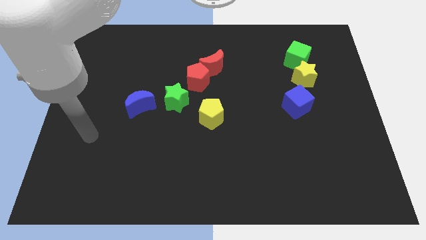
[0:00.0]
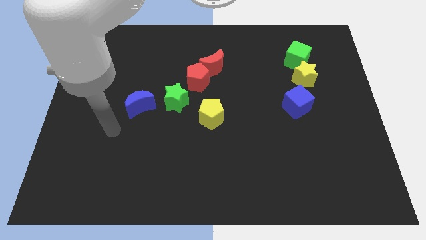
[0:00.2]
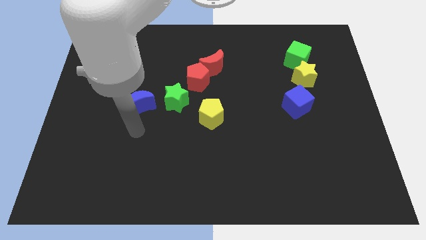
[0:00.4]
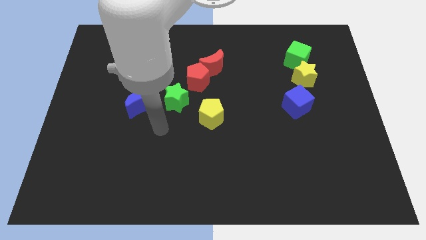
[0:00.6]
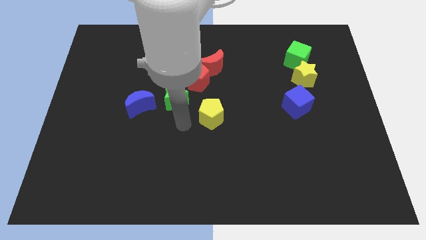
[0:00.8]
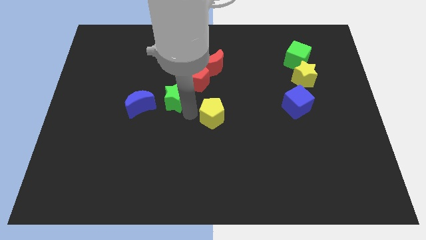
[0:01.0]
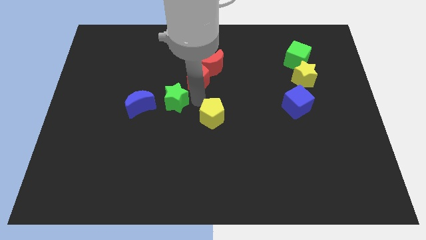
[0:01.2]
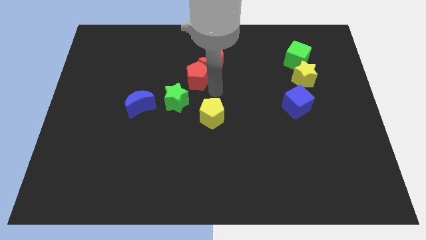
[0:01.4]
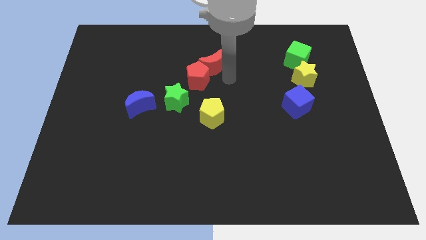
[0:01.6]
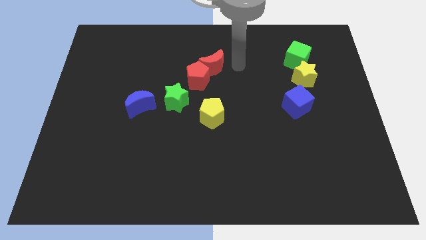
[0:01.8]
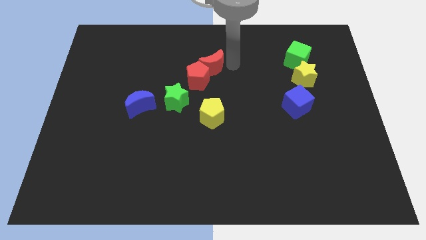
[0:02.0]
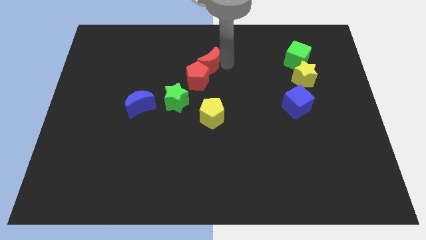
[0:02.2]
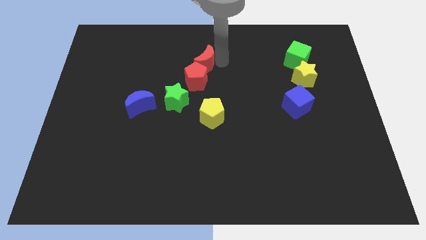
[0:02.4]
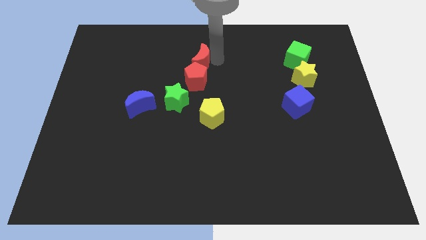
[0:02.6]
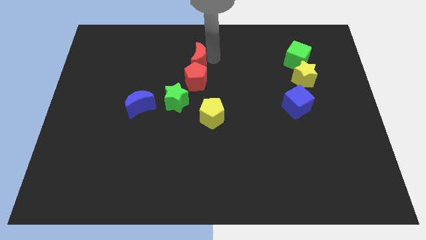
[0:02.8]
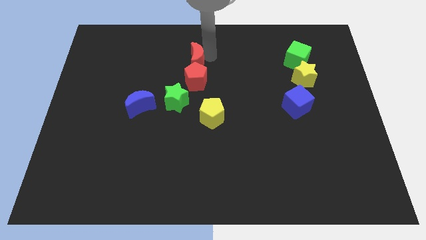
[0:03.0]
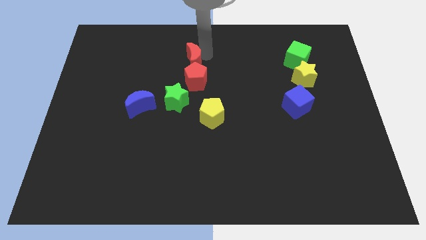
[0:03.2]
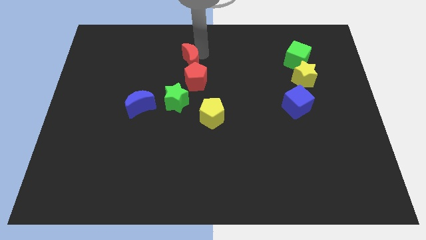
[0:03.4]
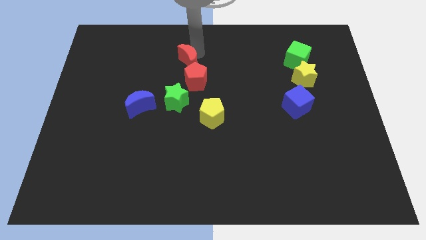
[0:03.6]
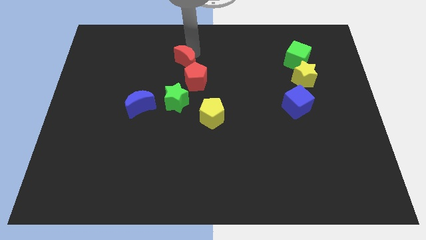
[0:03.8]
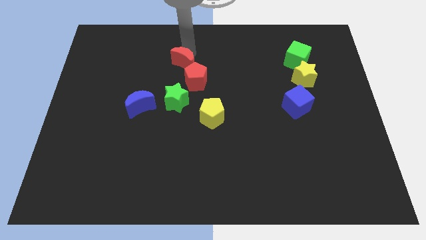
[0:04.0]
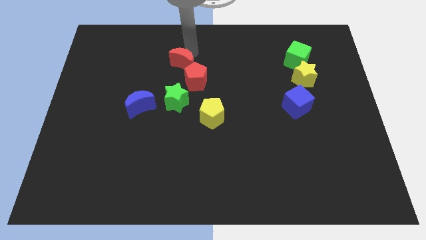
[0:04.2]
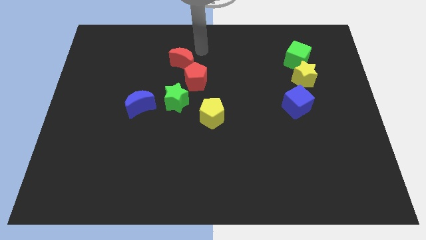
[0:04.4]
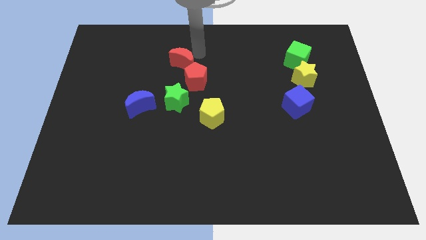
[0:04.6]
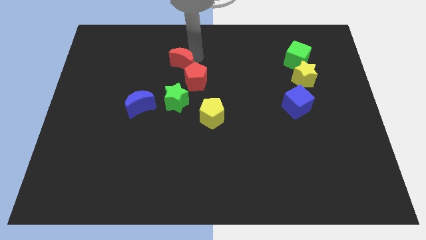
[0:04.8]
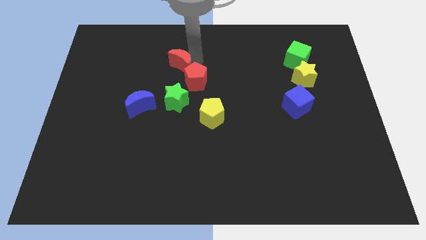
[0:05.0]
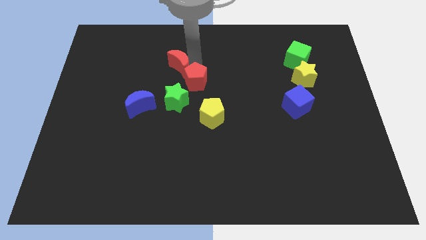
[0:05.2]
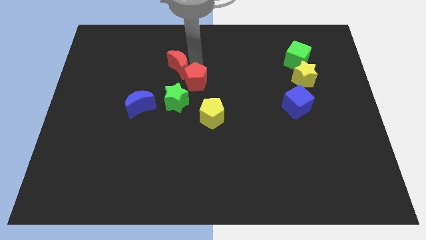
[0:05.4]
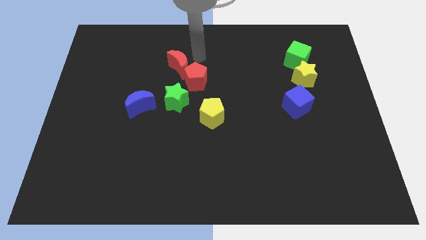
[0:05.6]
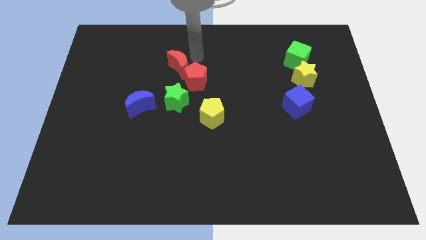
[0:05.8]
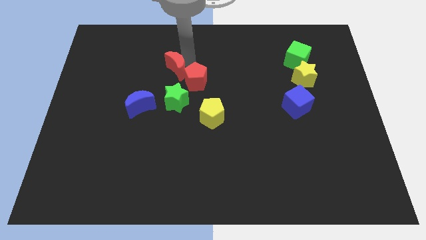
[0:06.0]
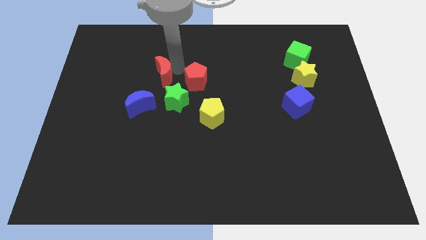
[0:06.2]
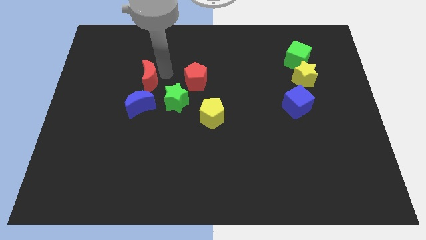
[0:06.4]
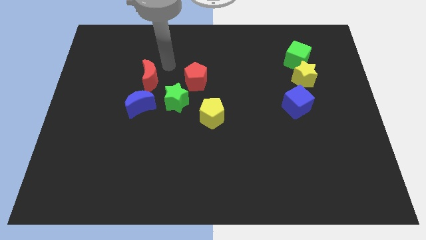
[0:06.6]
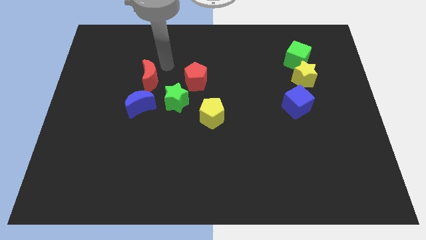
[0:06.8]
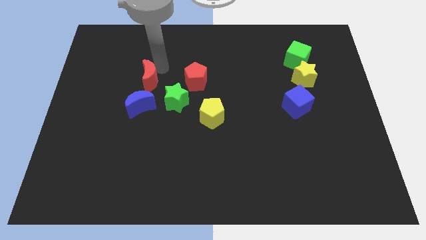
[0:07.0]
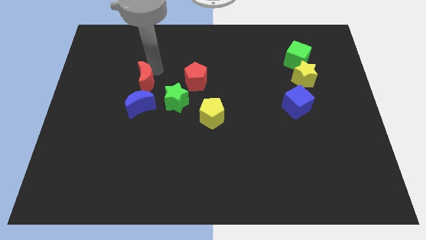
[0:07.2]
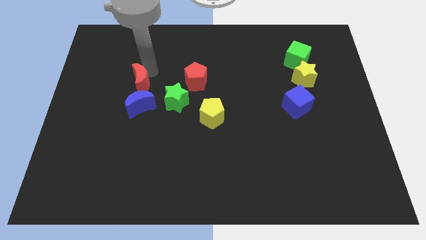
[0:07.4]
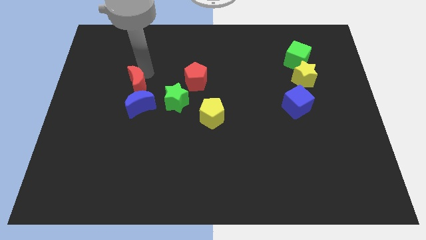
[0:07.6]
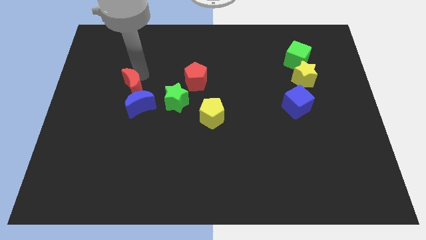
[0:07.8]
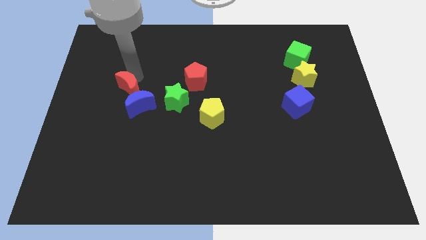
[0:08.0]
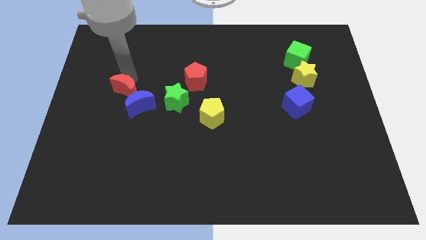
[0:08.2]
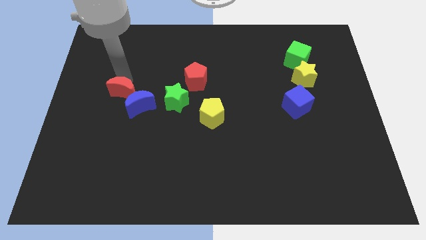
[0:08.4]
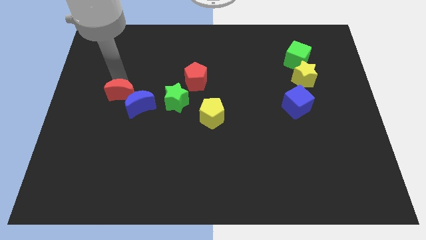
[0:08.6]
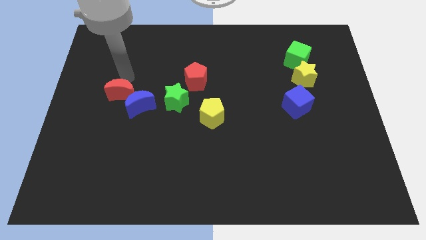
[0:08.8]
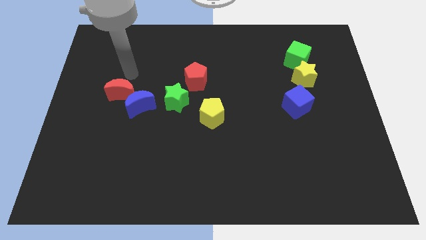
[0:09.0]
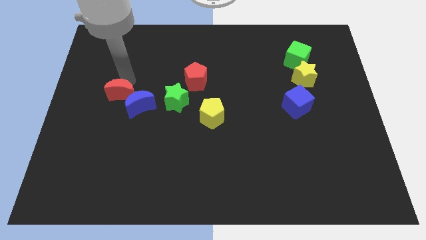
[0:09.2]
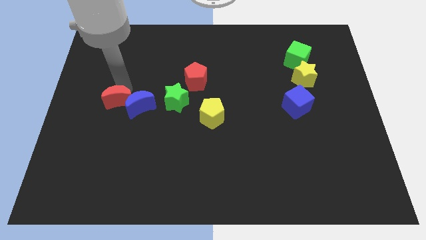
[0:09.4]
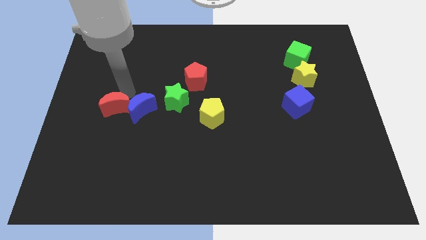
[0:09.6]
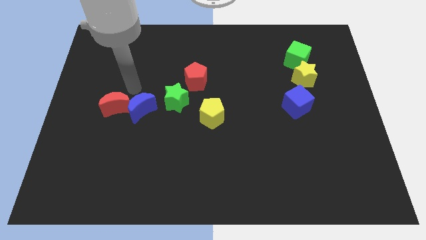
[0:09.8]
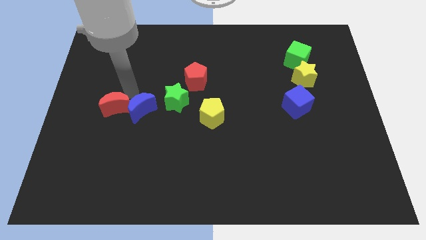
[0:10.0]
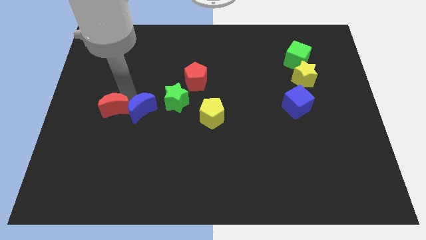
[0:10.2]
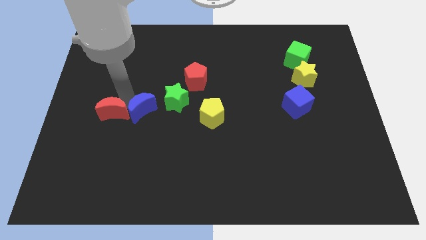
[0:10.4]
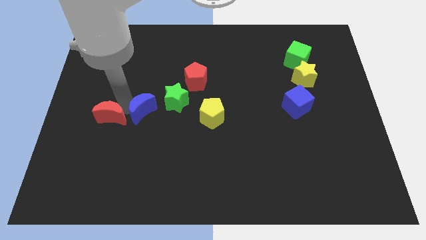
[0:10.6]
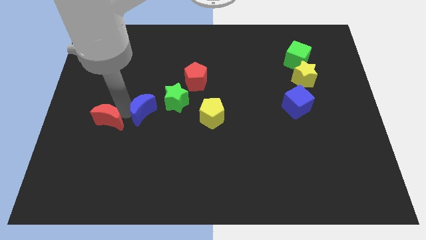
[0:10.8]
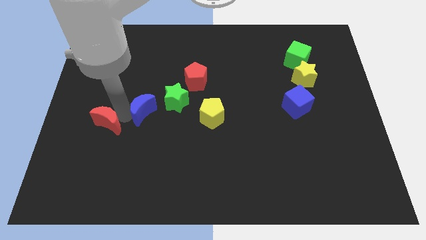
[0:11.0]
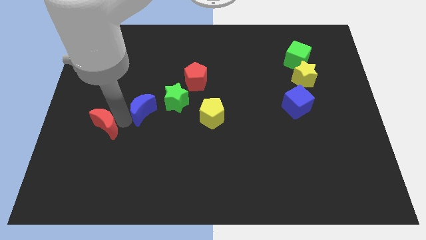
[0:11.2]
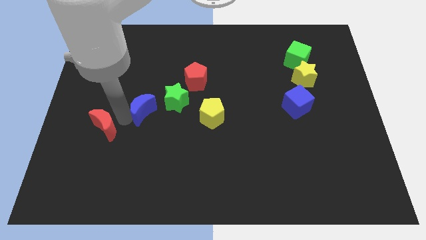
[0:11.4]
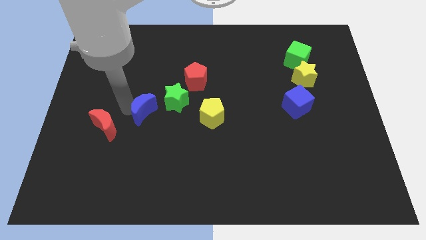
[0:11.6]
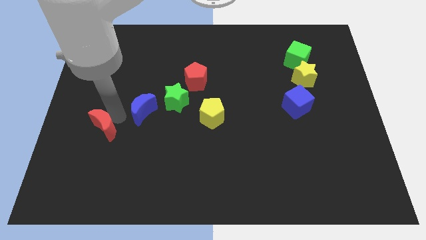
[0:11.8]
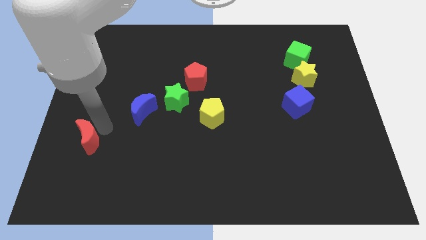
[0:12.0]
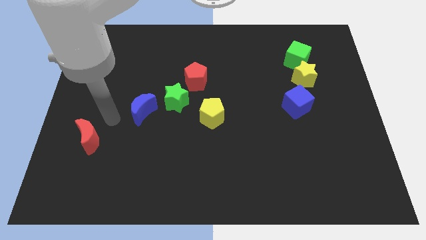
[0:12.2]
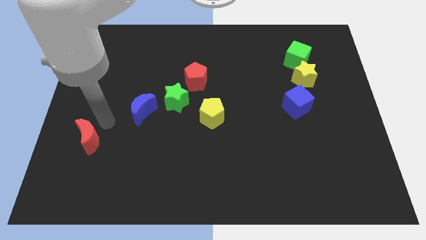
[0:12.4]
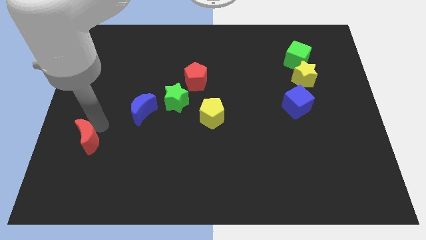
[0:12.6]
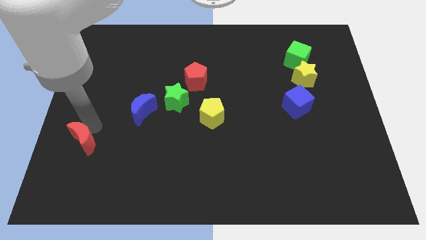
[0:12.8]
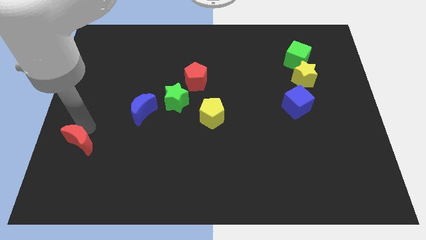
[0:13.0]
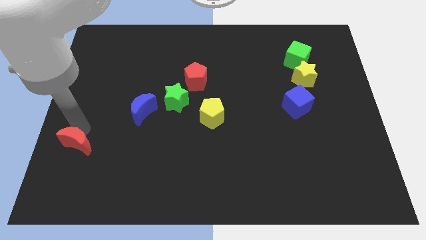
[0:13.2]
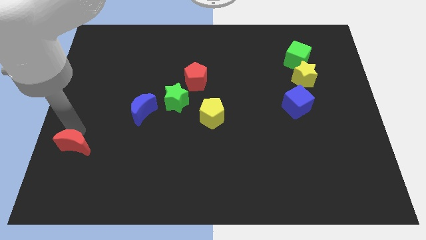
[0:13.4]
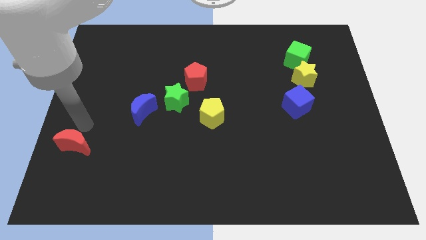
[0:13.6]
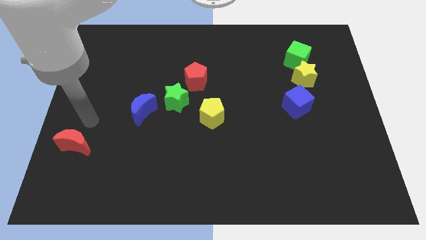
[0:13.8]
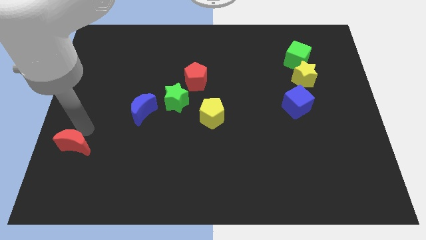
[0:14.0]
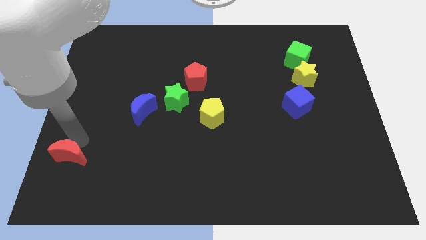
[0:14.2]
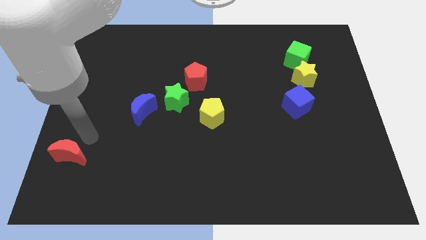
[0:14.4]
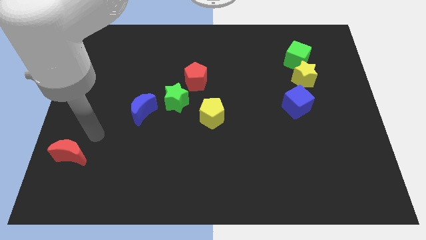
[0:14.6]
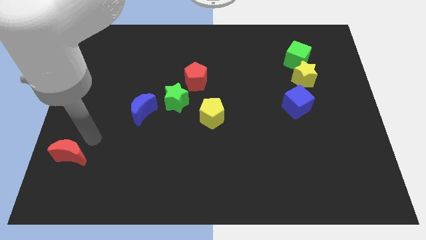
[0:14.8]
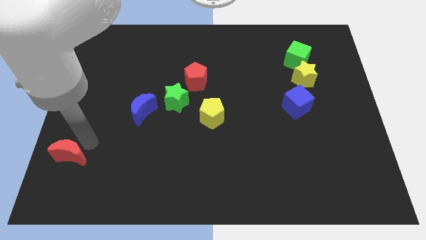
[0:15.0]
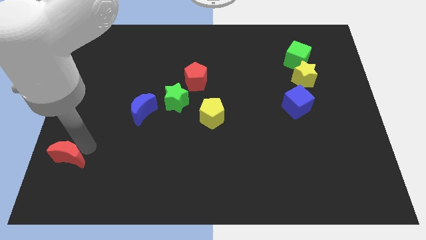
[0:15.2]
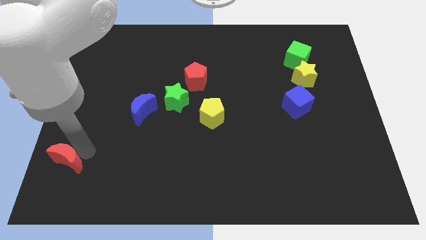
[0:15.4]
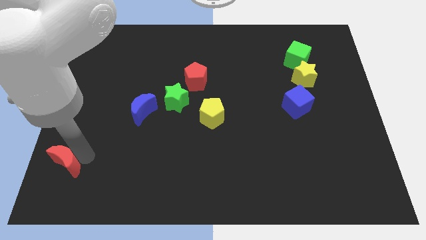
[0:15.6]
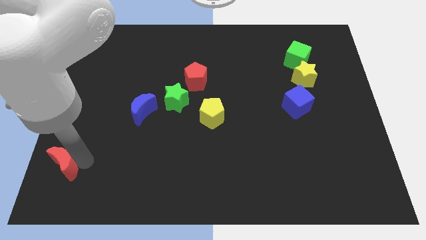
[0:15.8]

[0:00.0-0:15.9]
put the red moon to the bottom left
